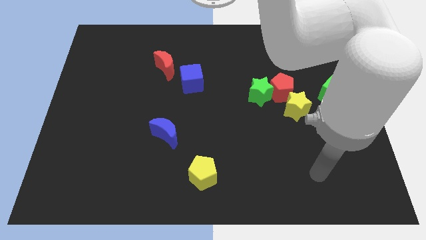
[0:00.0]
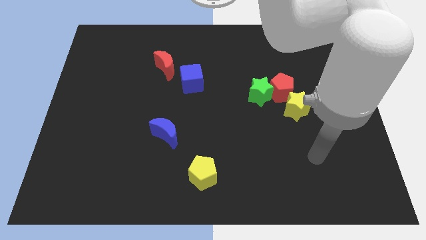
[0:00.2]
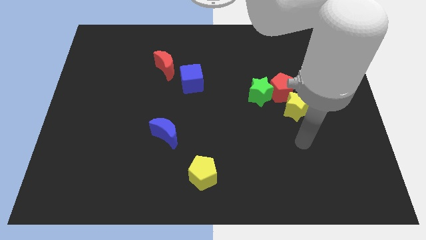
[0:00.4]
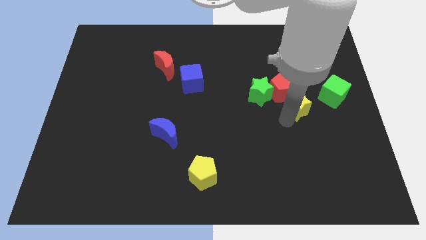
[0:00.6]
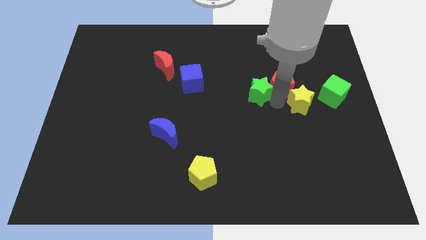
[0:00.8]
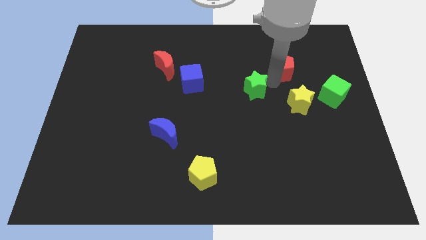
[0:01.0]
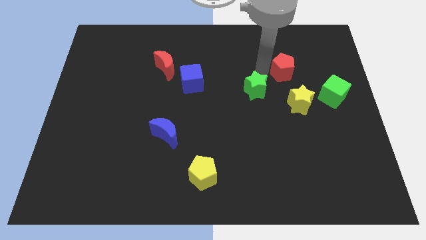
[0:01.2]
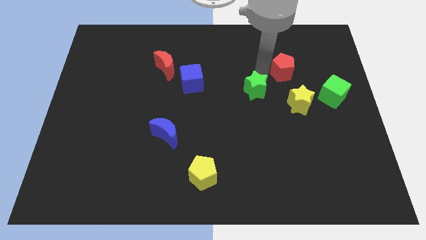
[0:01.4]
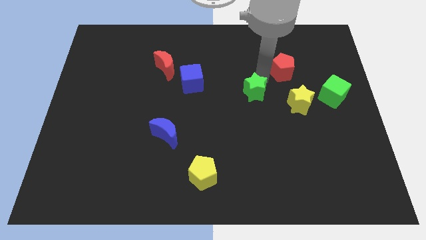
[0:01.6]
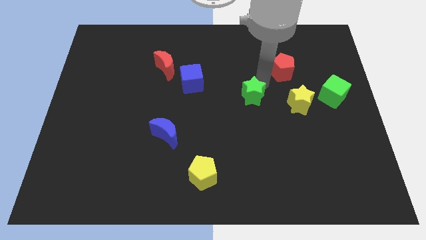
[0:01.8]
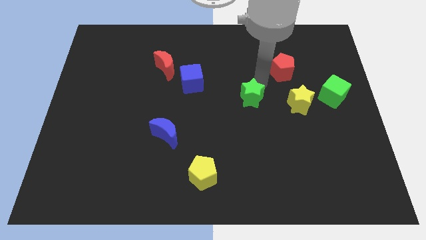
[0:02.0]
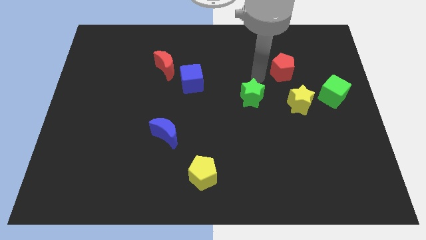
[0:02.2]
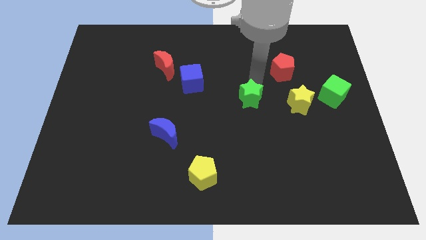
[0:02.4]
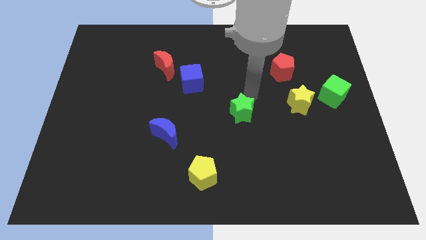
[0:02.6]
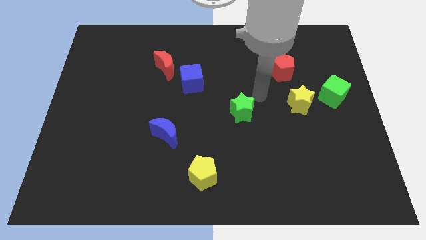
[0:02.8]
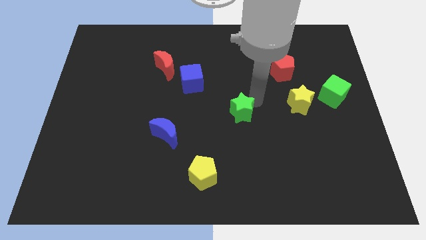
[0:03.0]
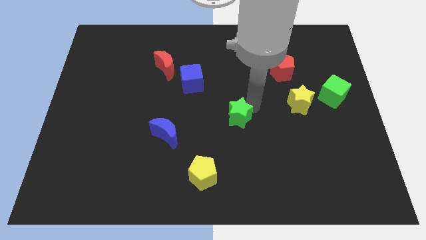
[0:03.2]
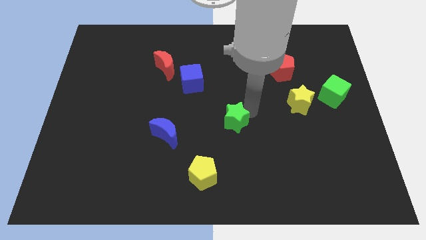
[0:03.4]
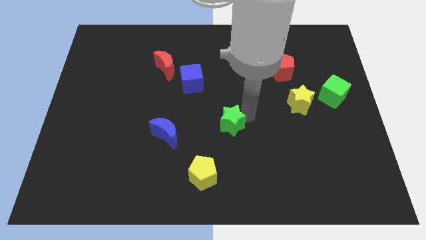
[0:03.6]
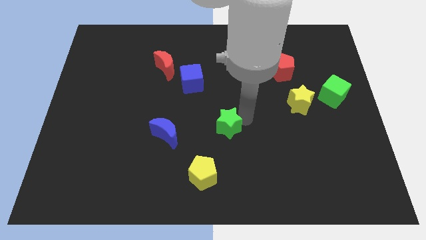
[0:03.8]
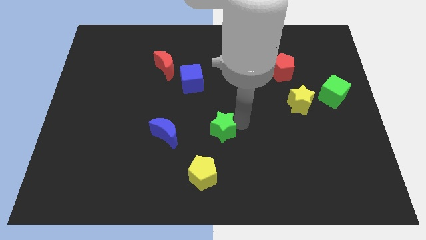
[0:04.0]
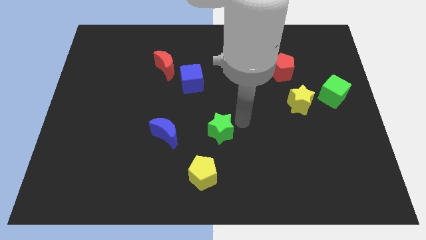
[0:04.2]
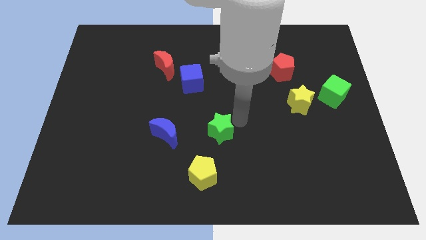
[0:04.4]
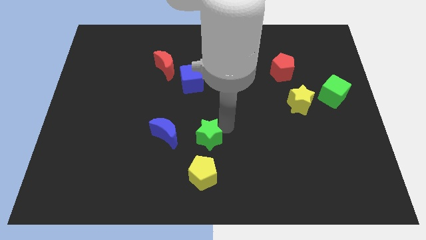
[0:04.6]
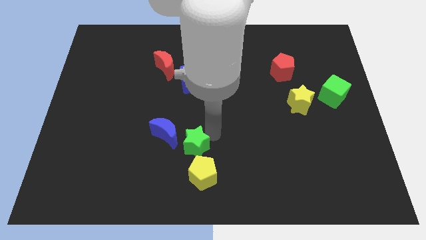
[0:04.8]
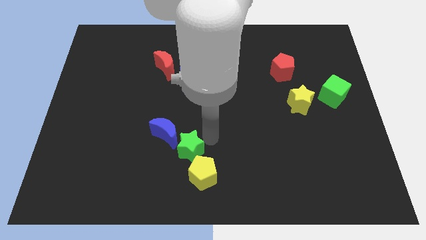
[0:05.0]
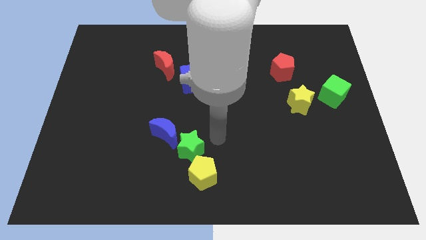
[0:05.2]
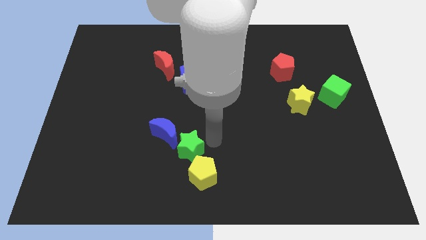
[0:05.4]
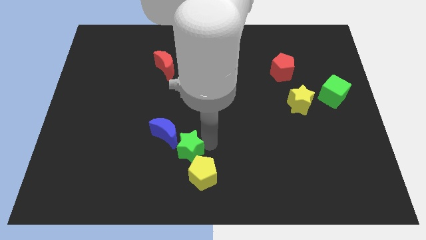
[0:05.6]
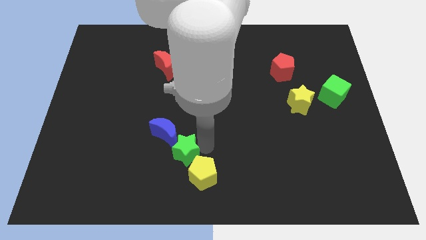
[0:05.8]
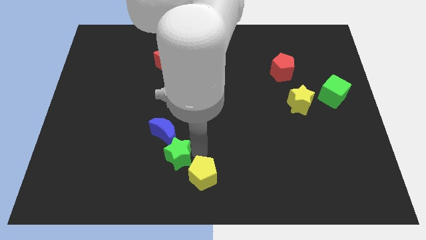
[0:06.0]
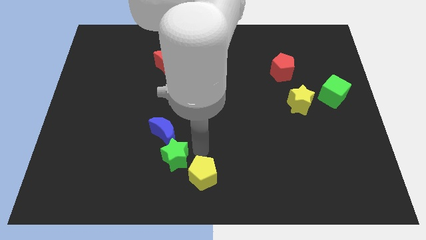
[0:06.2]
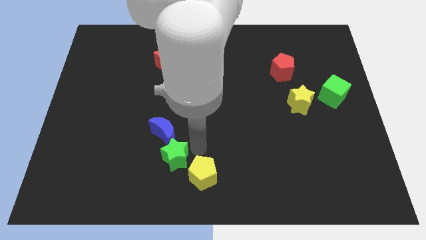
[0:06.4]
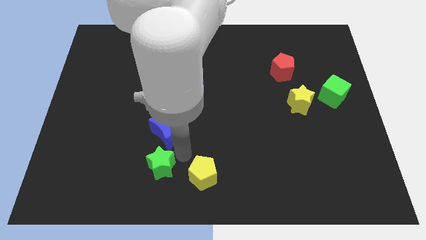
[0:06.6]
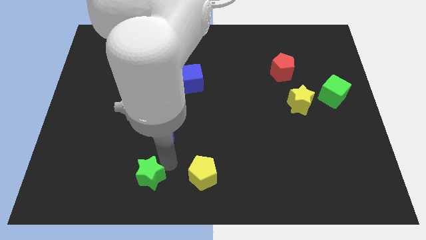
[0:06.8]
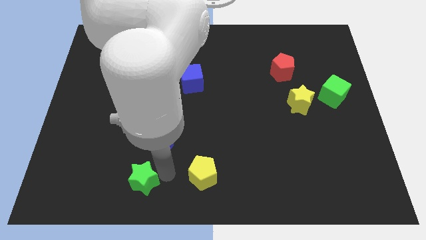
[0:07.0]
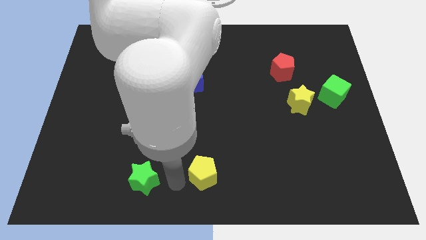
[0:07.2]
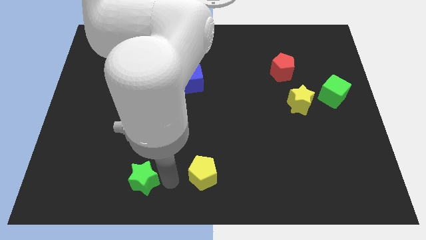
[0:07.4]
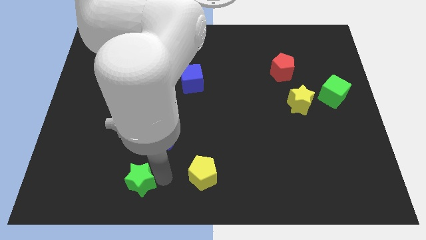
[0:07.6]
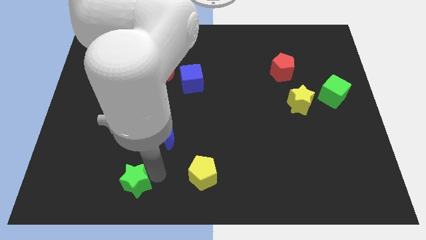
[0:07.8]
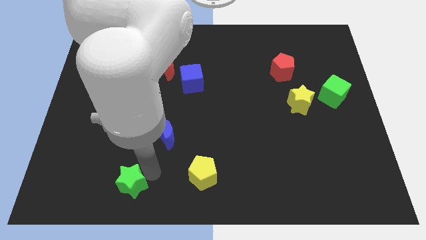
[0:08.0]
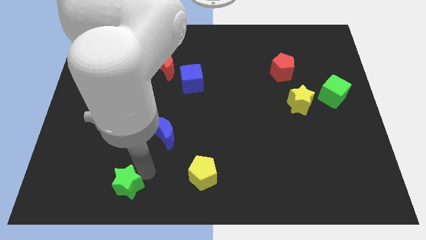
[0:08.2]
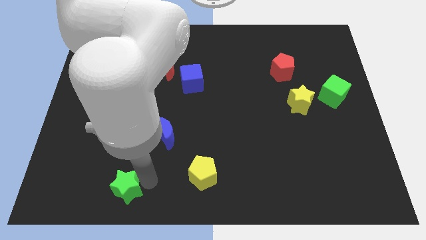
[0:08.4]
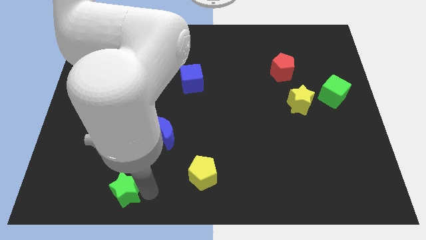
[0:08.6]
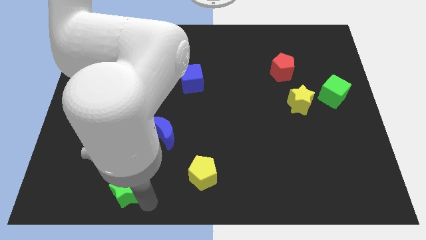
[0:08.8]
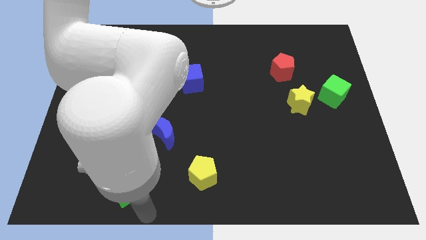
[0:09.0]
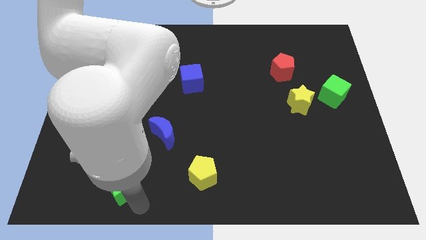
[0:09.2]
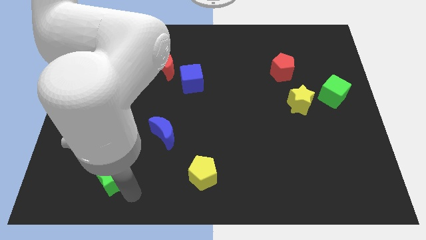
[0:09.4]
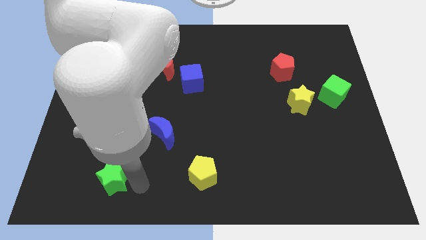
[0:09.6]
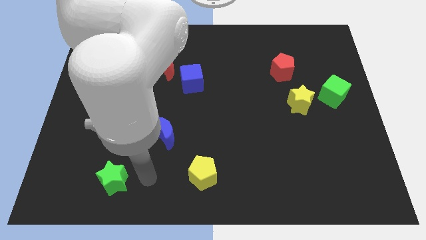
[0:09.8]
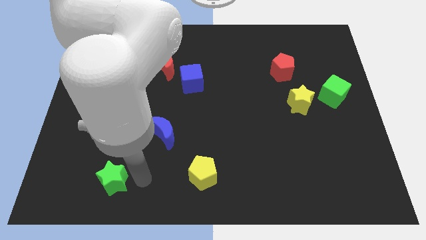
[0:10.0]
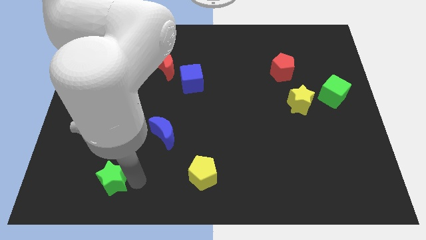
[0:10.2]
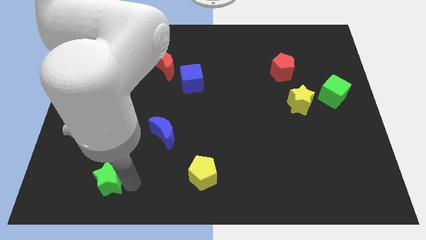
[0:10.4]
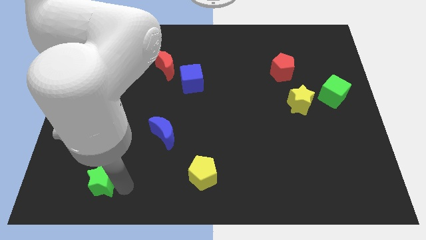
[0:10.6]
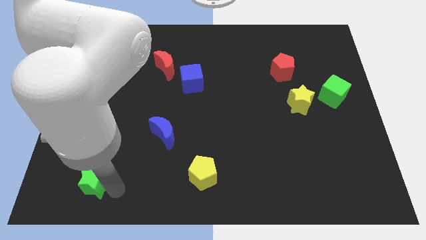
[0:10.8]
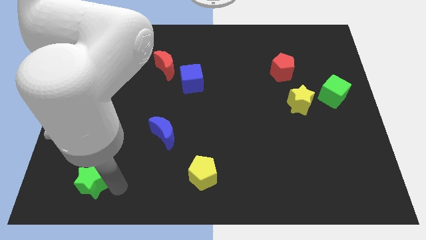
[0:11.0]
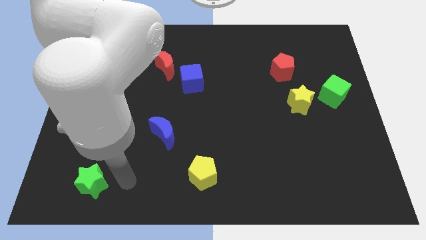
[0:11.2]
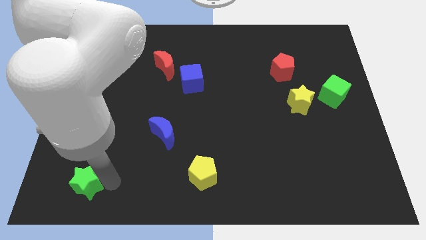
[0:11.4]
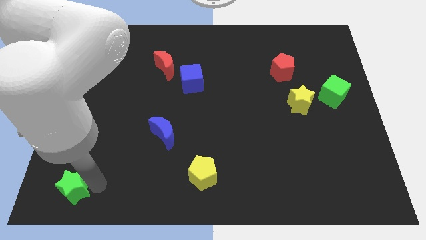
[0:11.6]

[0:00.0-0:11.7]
move the green star to the bottom left of the board
